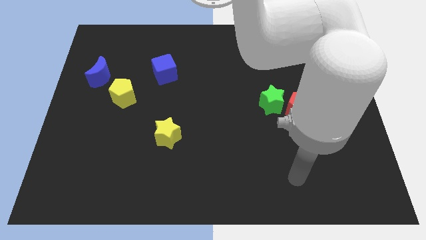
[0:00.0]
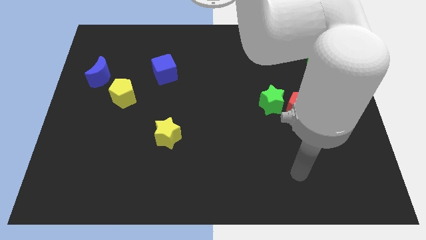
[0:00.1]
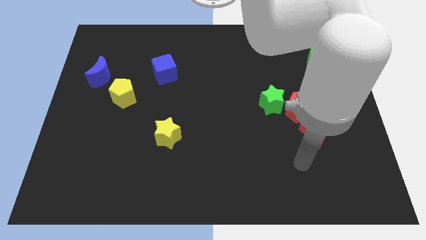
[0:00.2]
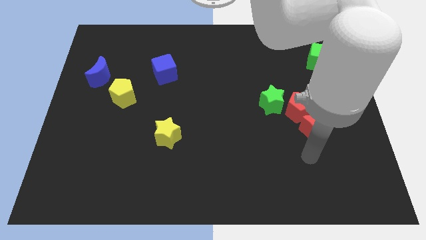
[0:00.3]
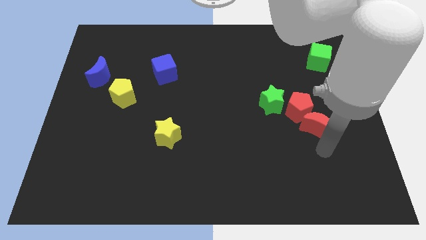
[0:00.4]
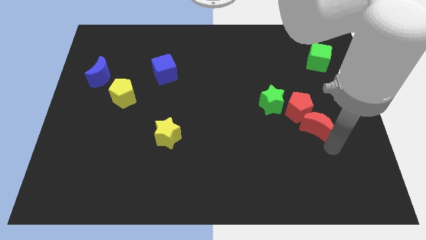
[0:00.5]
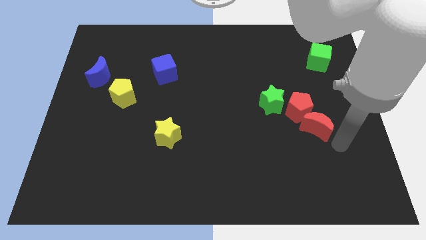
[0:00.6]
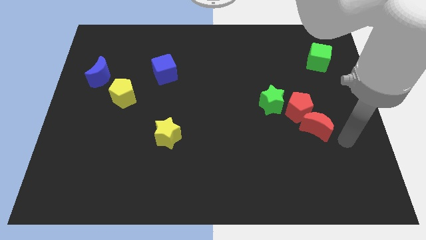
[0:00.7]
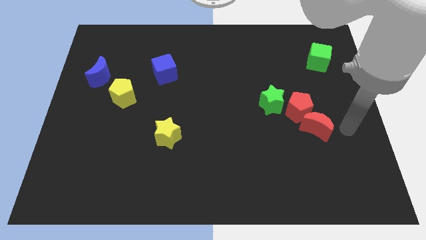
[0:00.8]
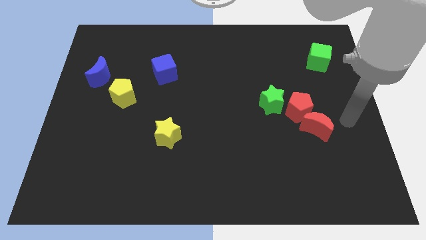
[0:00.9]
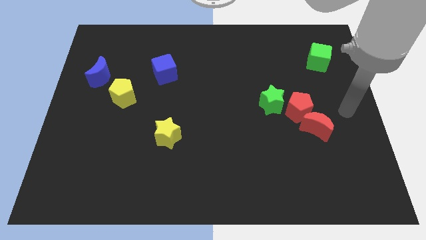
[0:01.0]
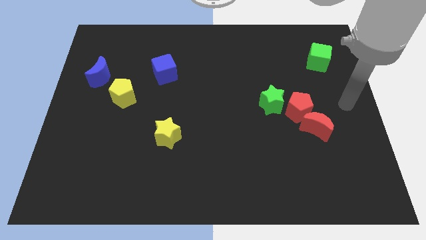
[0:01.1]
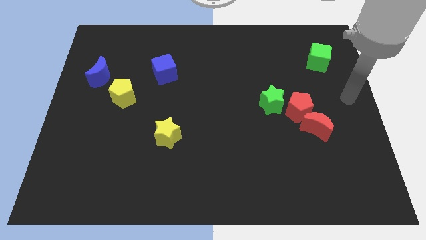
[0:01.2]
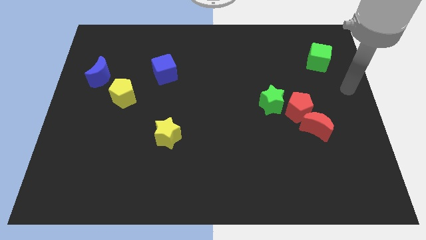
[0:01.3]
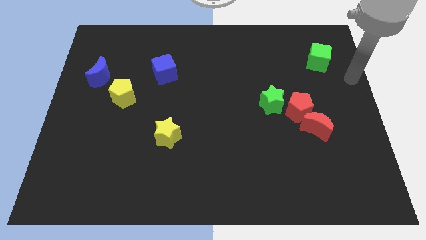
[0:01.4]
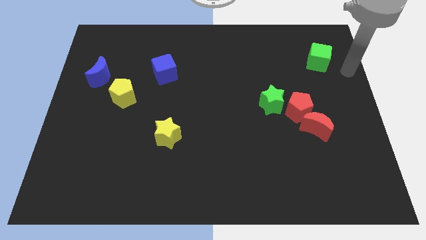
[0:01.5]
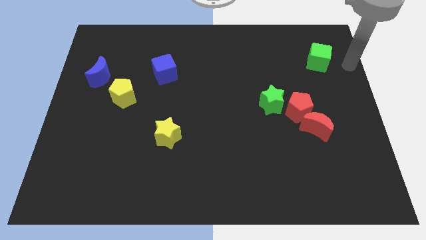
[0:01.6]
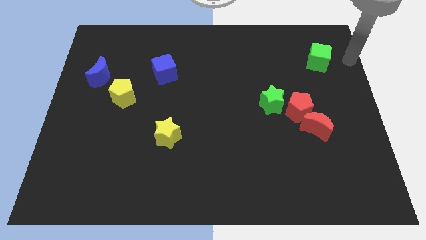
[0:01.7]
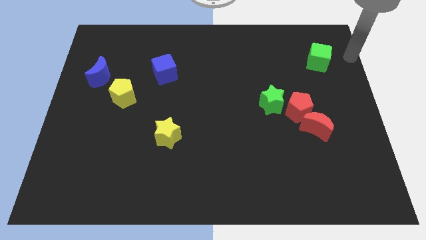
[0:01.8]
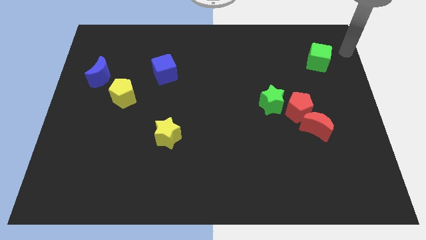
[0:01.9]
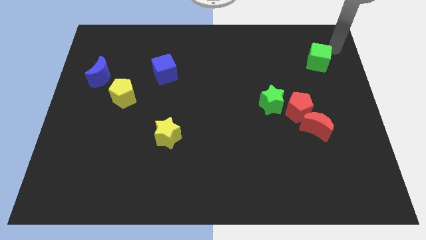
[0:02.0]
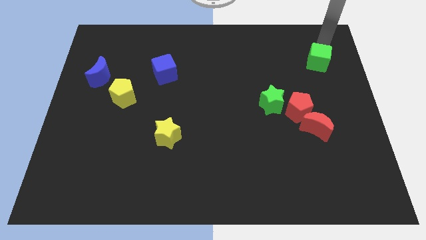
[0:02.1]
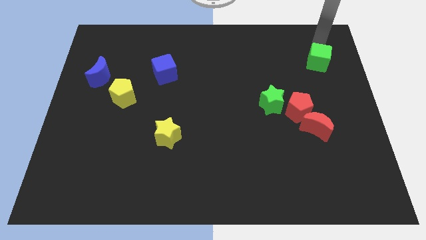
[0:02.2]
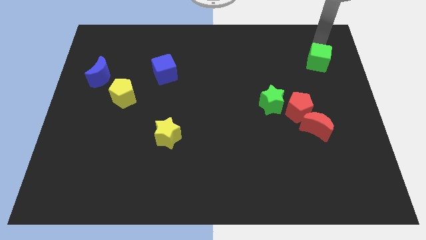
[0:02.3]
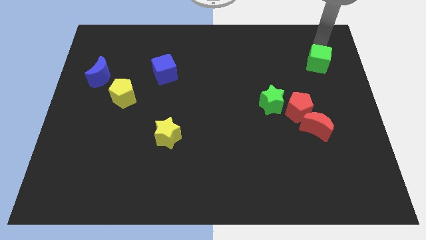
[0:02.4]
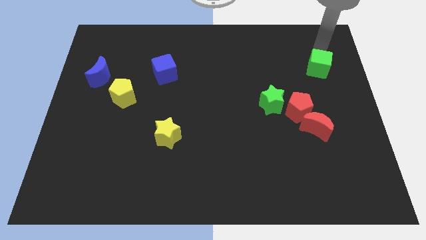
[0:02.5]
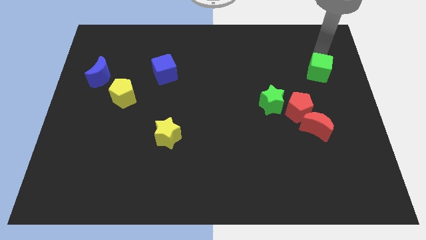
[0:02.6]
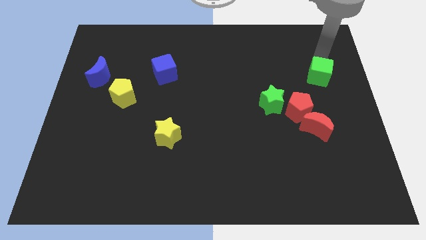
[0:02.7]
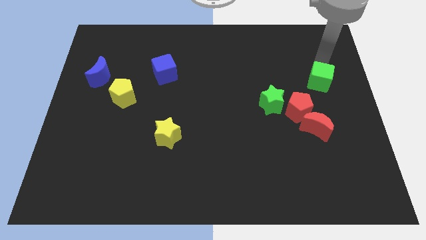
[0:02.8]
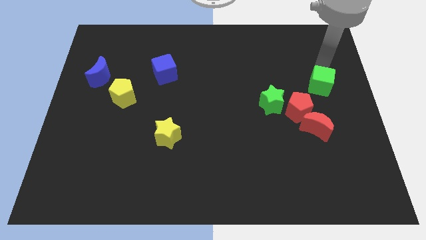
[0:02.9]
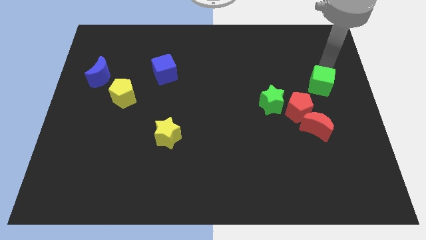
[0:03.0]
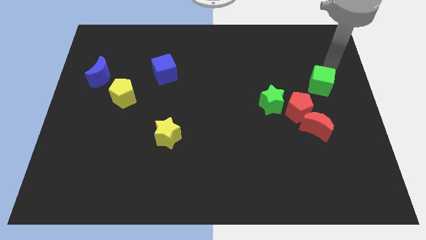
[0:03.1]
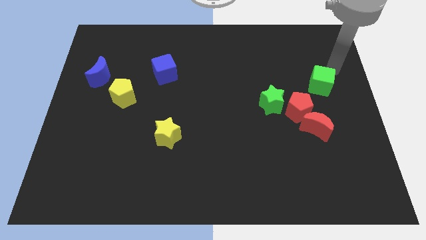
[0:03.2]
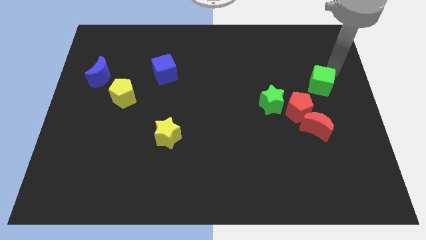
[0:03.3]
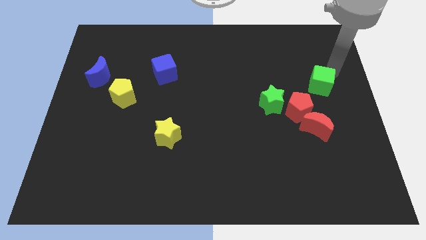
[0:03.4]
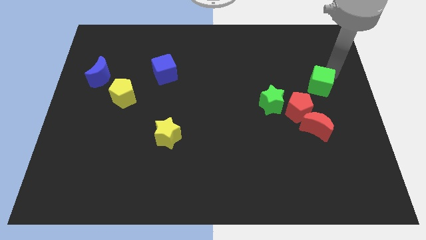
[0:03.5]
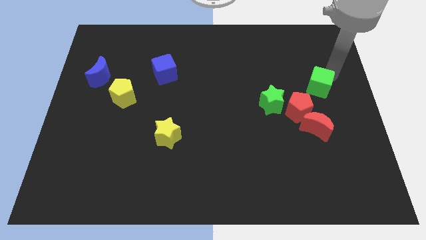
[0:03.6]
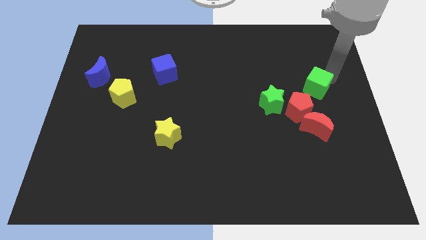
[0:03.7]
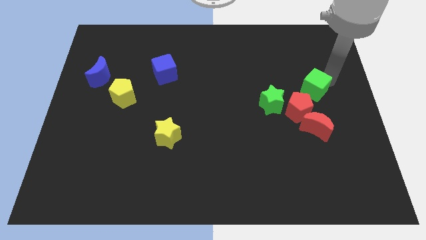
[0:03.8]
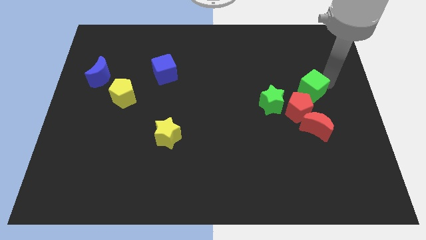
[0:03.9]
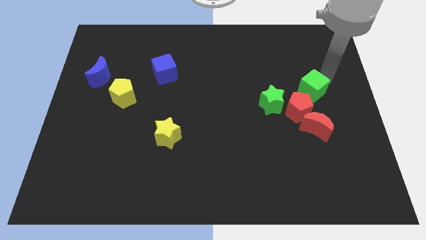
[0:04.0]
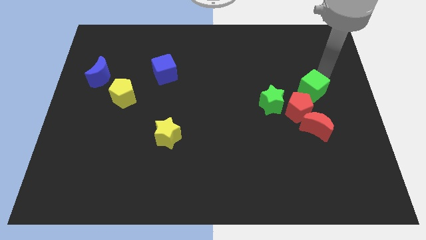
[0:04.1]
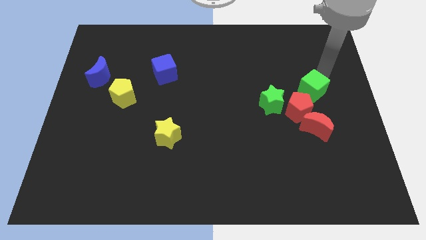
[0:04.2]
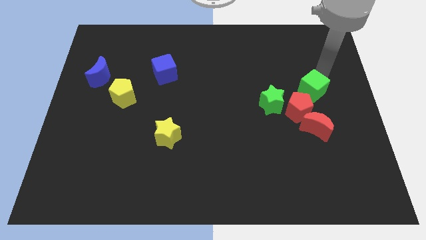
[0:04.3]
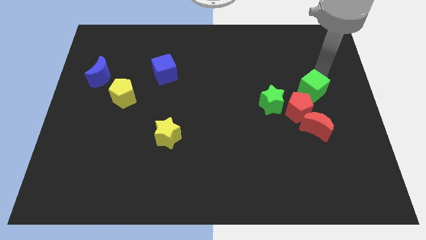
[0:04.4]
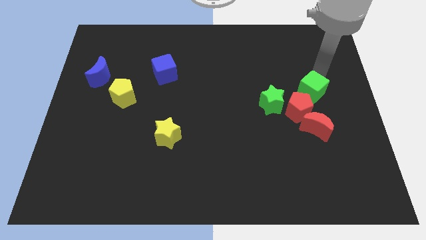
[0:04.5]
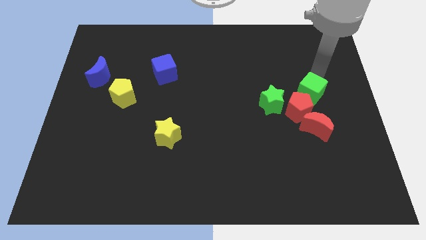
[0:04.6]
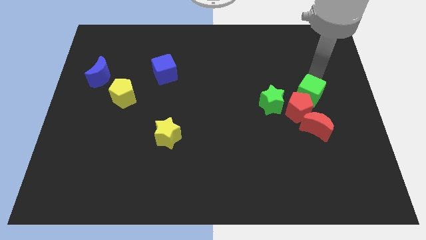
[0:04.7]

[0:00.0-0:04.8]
put the green cube towards the red pentagon

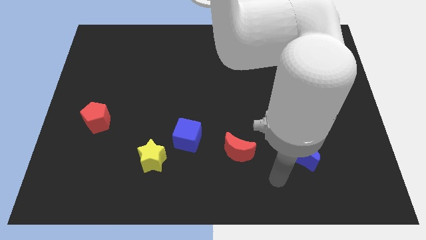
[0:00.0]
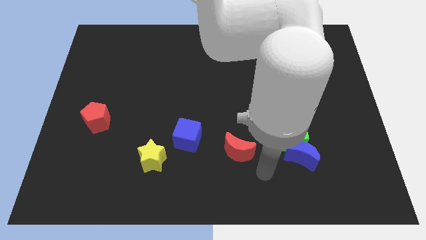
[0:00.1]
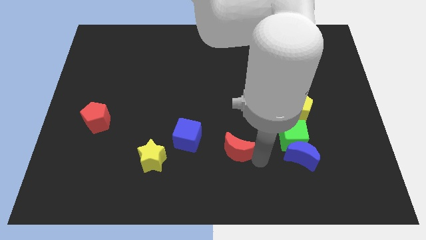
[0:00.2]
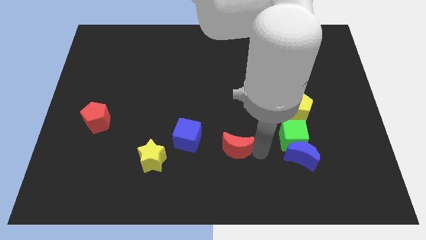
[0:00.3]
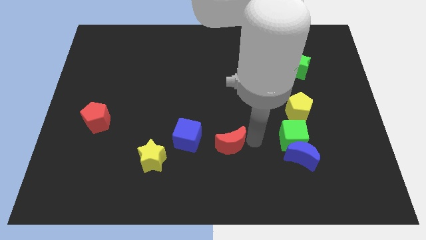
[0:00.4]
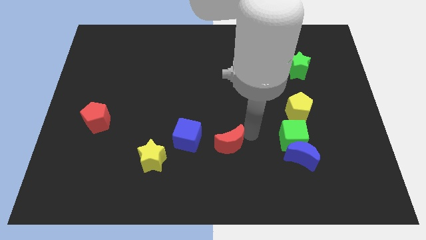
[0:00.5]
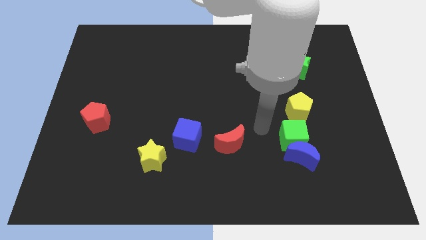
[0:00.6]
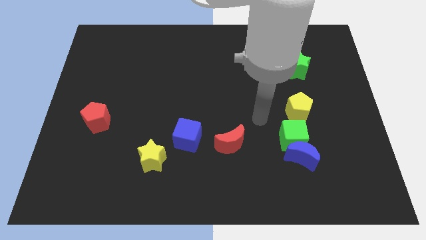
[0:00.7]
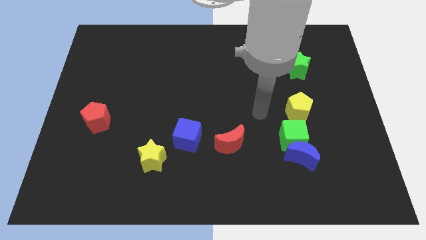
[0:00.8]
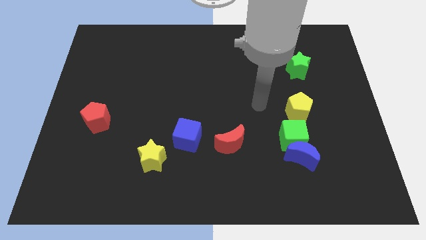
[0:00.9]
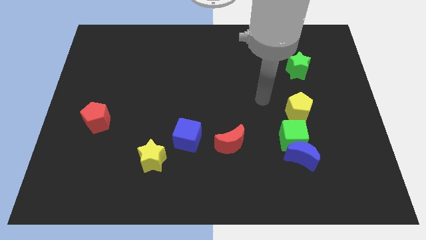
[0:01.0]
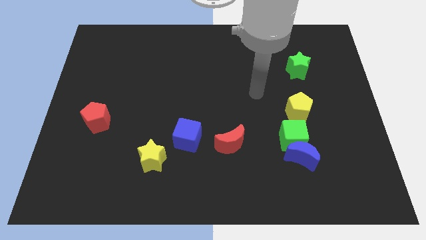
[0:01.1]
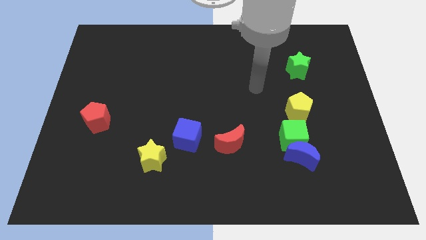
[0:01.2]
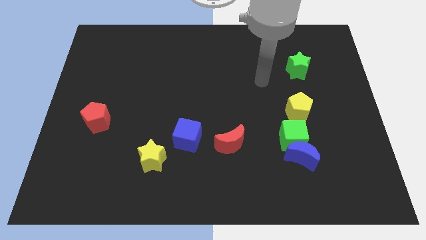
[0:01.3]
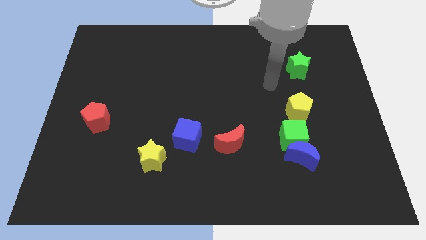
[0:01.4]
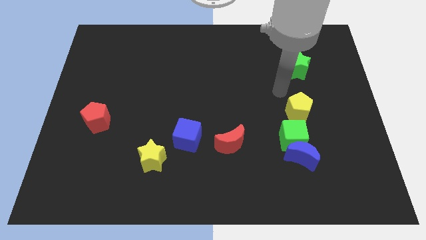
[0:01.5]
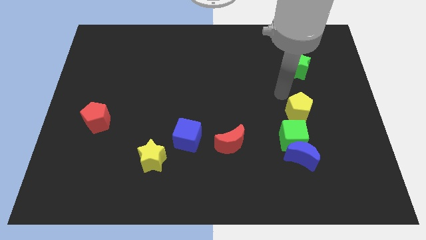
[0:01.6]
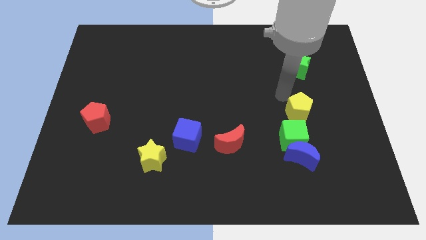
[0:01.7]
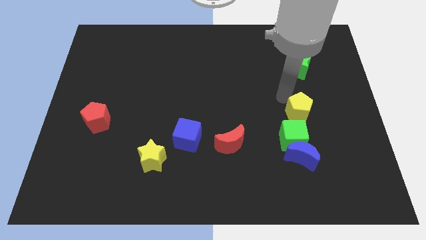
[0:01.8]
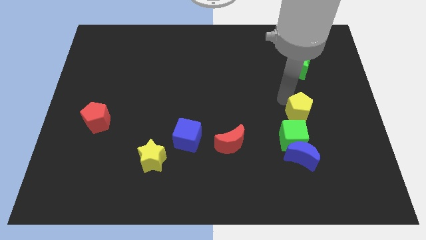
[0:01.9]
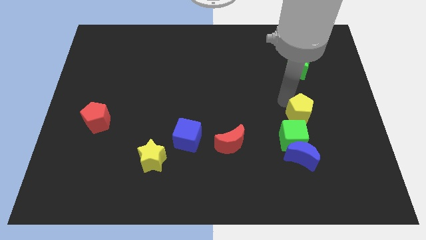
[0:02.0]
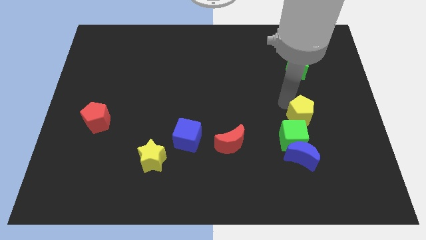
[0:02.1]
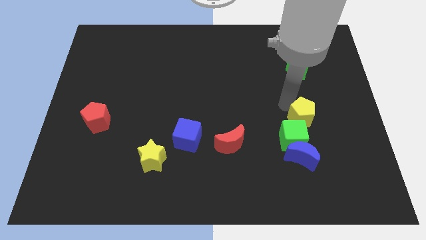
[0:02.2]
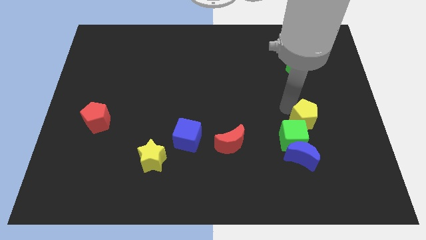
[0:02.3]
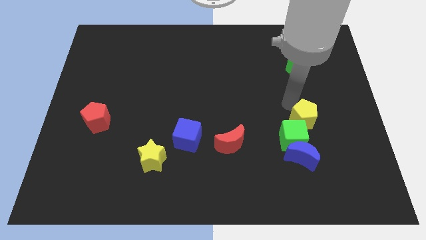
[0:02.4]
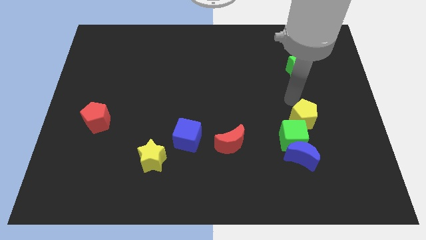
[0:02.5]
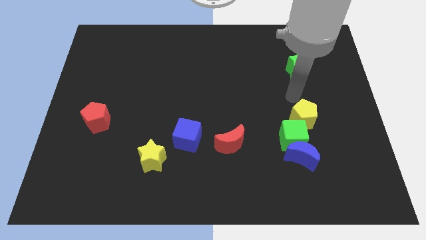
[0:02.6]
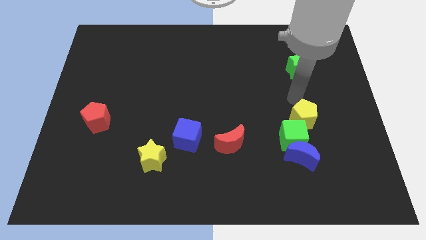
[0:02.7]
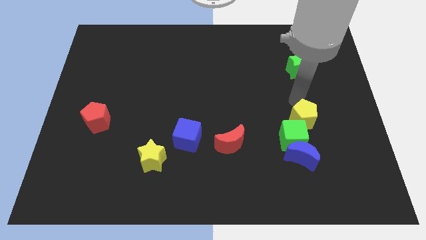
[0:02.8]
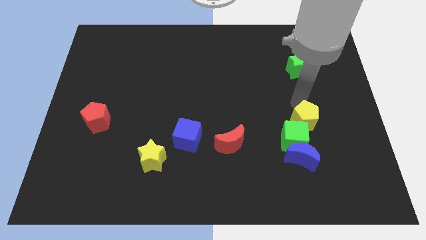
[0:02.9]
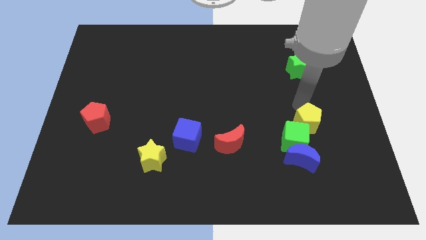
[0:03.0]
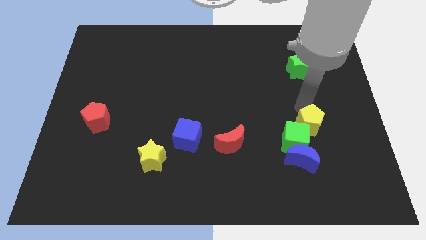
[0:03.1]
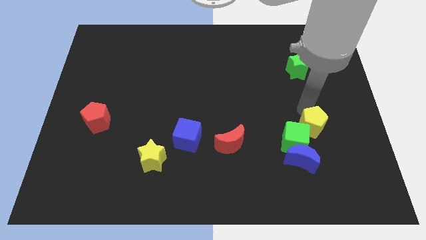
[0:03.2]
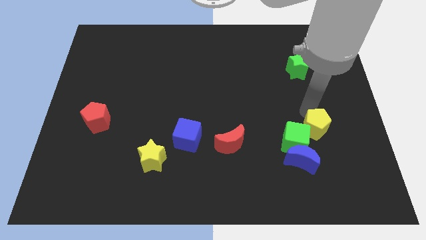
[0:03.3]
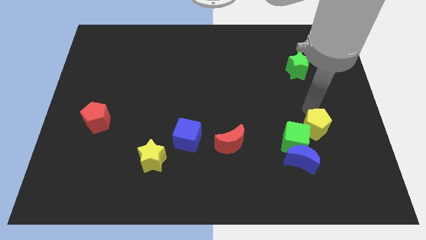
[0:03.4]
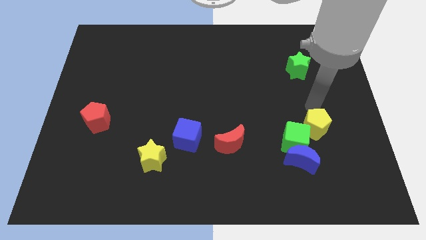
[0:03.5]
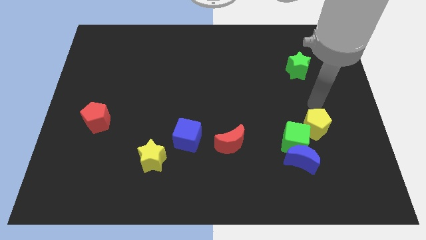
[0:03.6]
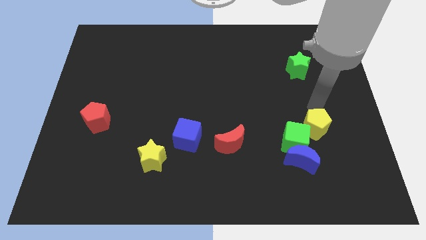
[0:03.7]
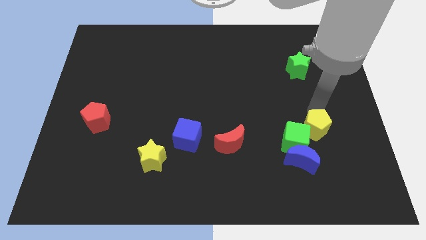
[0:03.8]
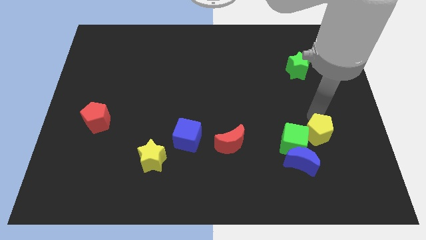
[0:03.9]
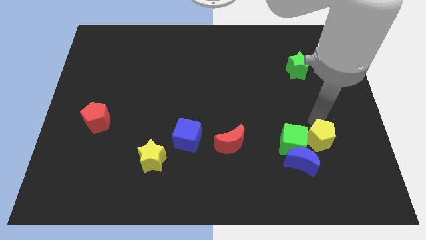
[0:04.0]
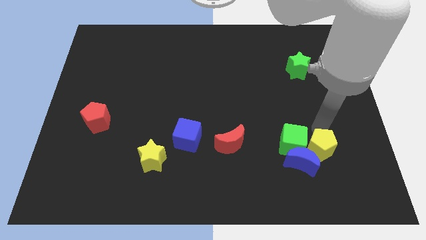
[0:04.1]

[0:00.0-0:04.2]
put the yellow pentagon towards the blue moon
